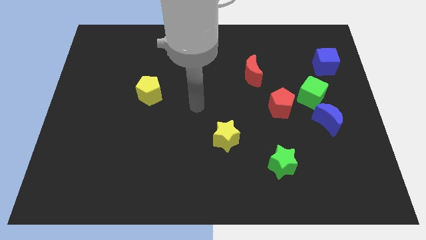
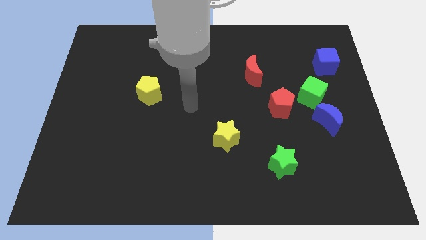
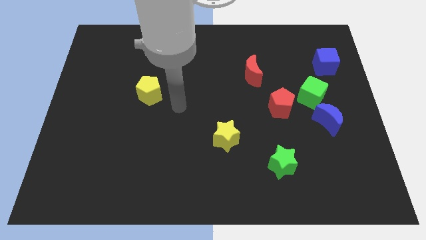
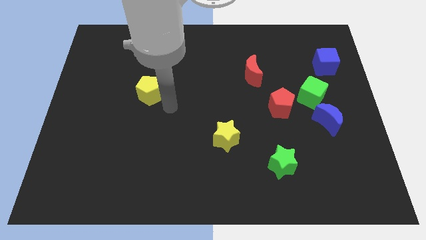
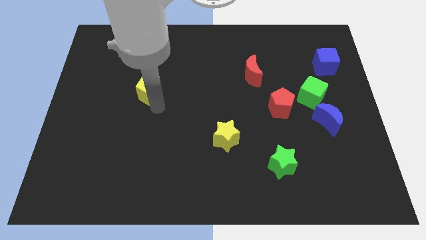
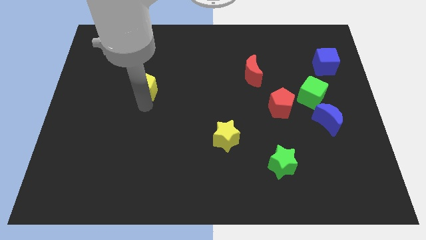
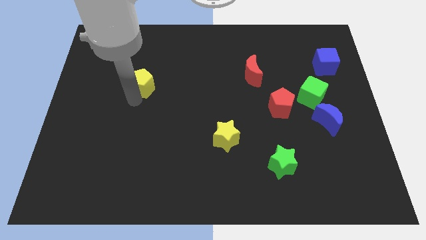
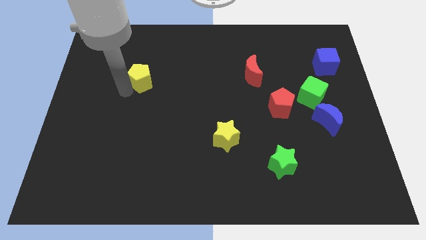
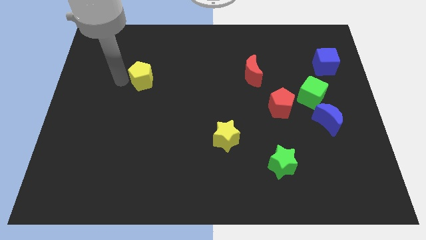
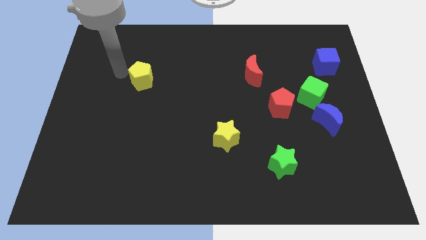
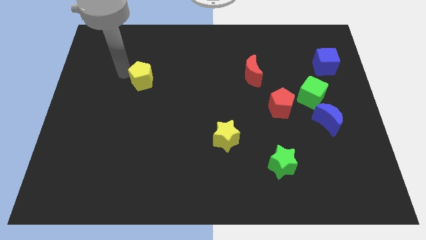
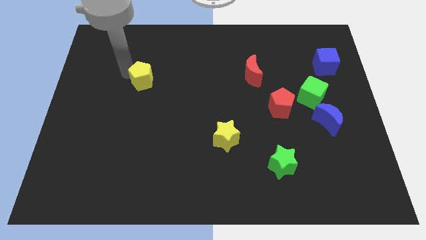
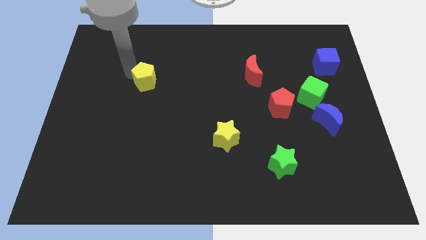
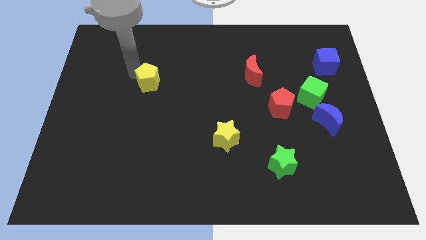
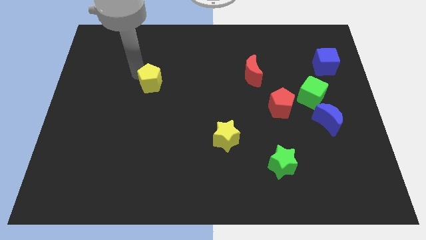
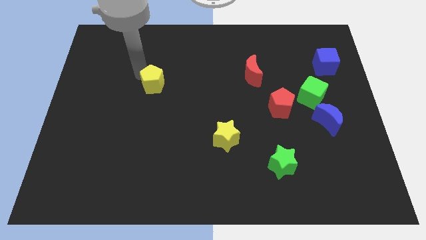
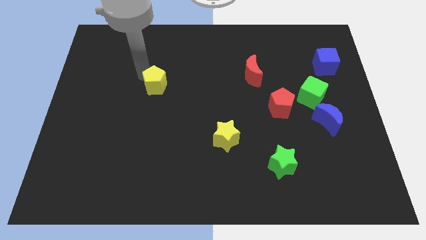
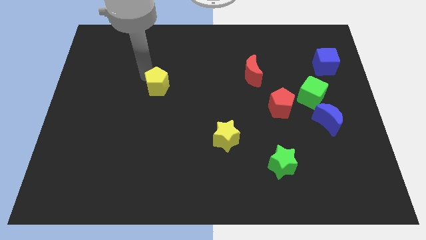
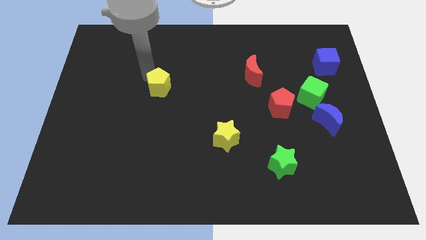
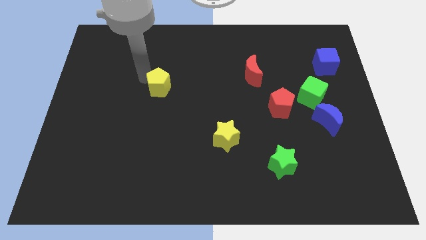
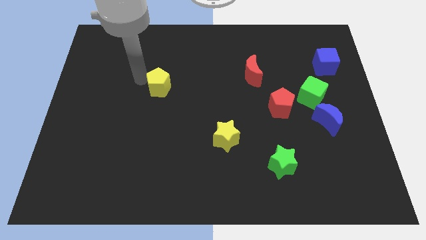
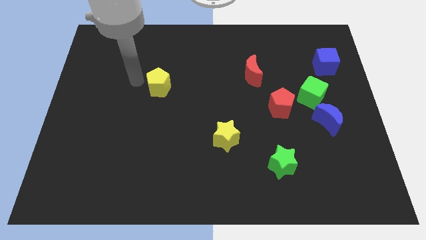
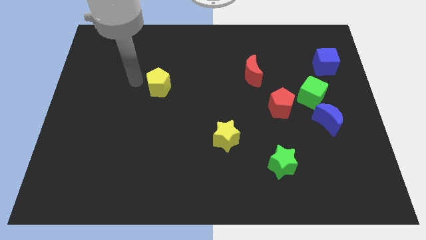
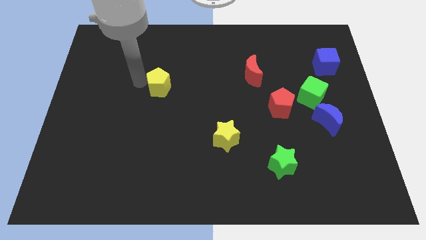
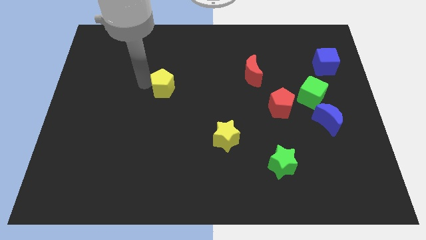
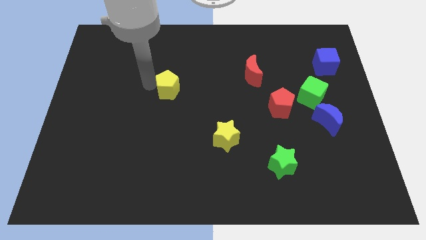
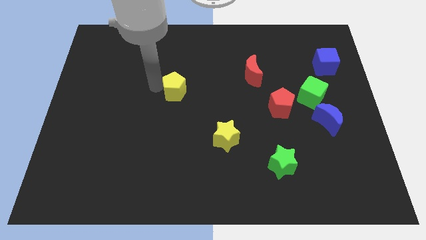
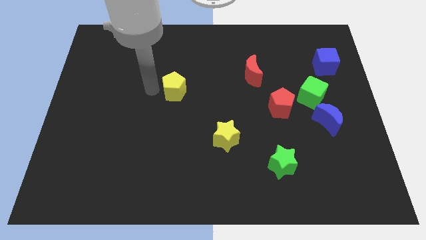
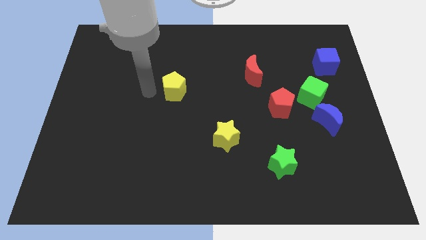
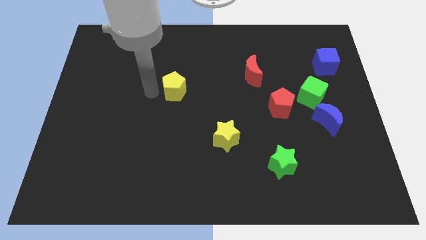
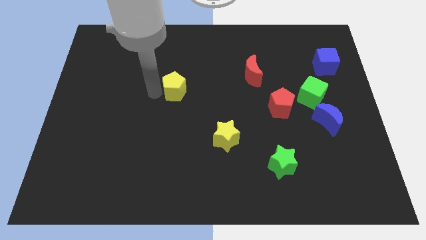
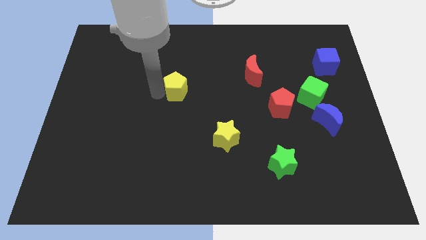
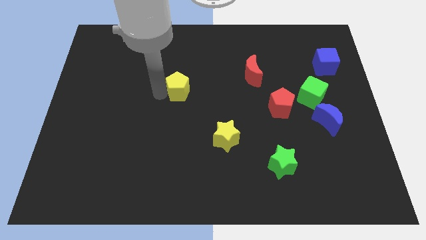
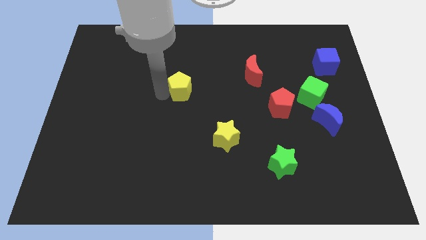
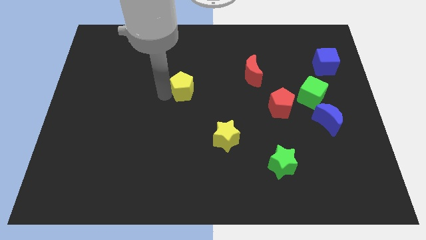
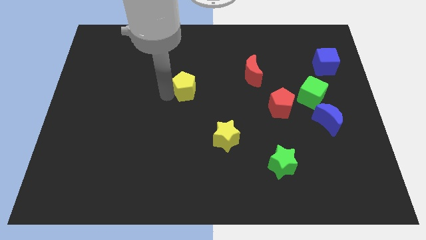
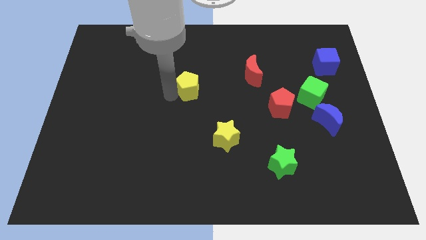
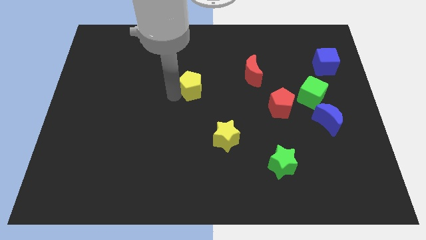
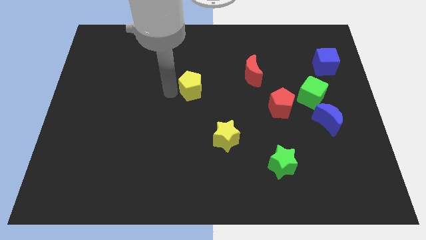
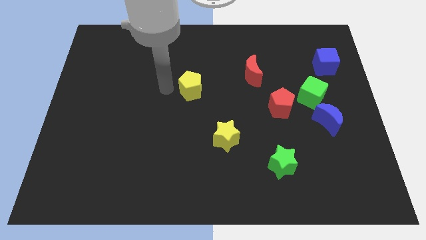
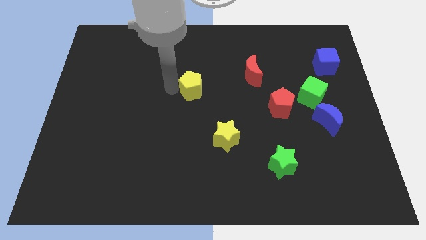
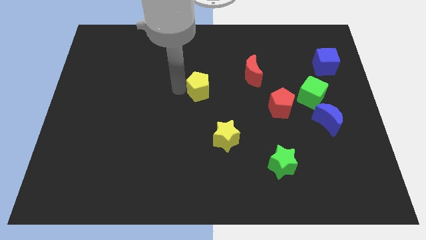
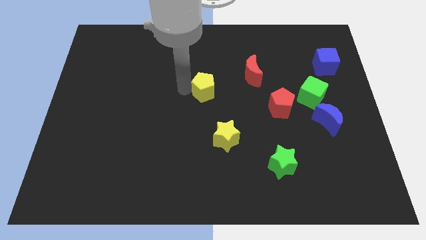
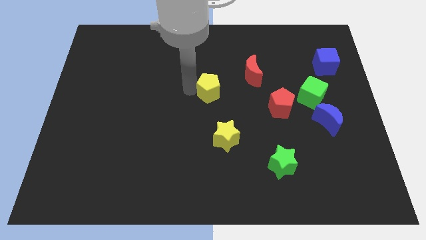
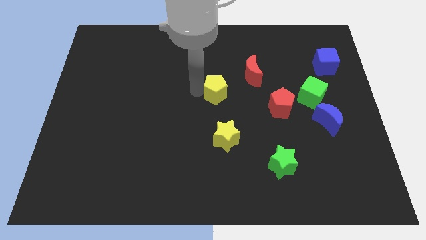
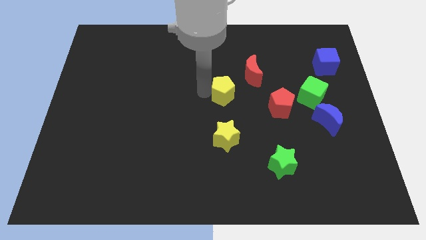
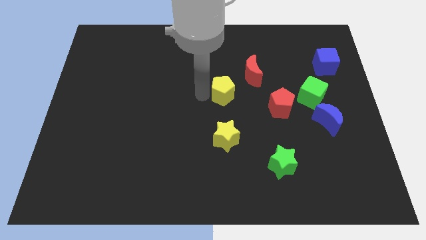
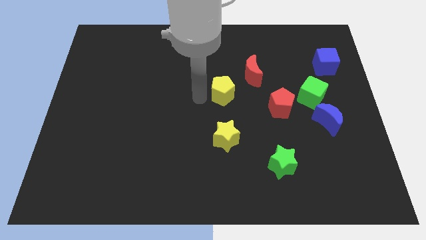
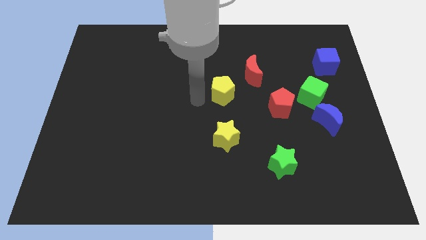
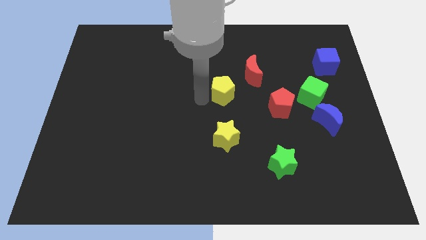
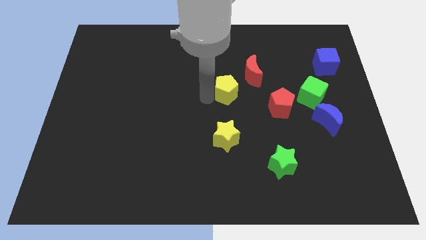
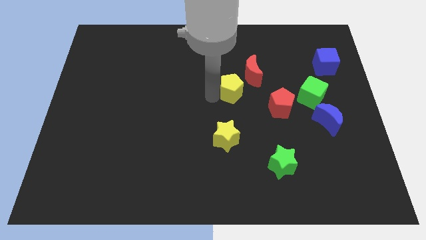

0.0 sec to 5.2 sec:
push the yellow pentagon right

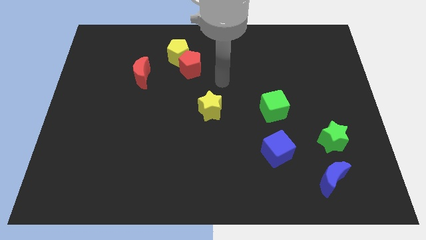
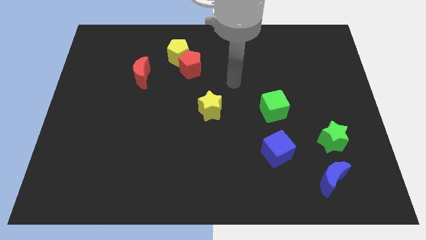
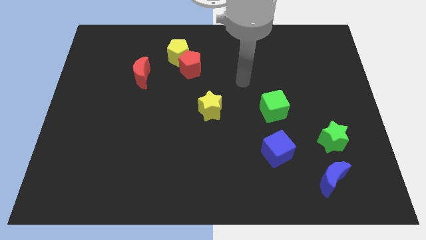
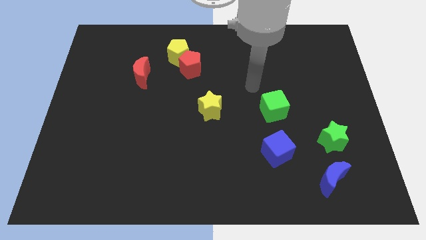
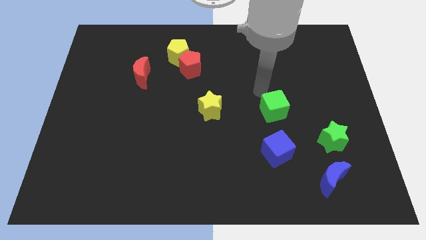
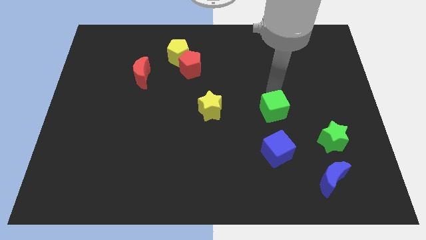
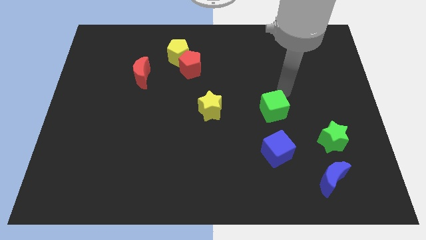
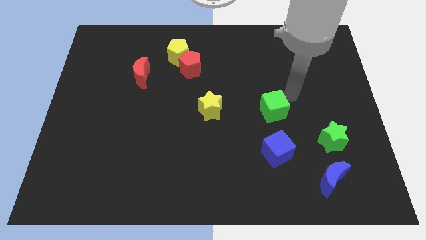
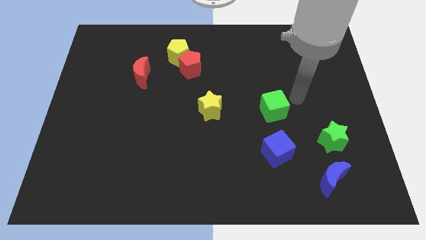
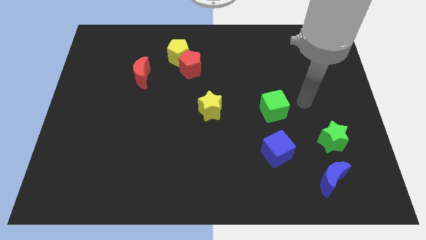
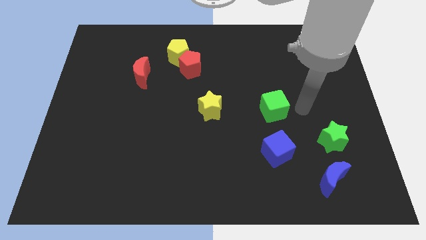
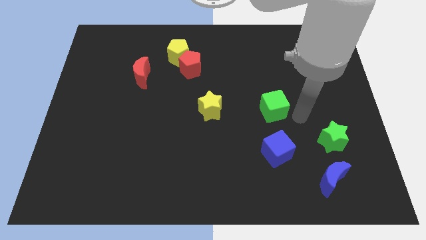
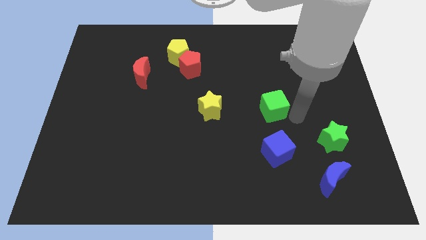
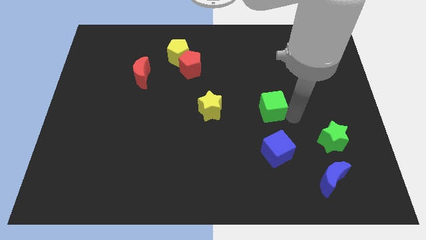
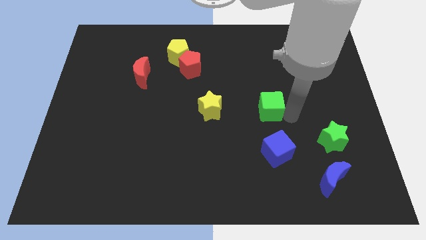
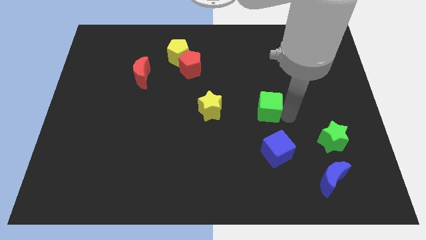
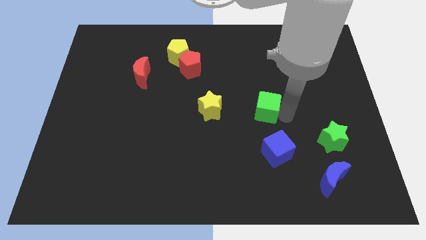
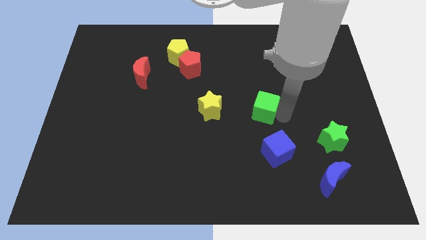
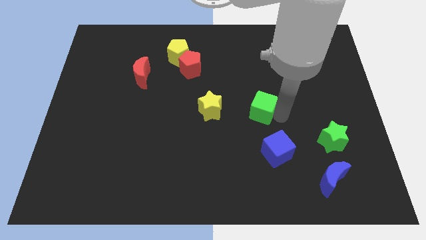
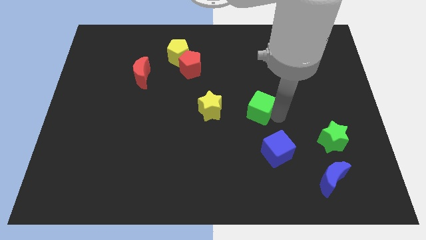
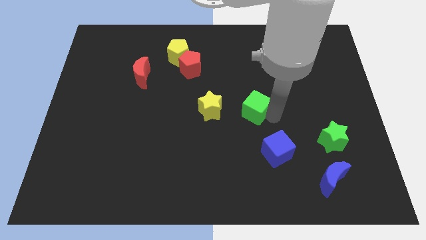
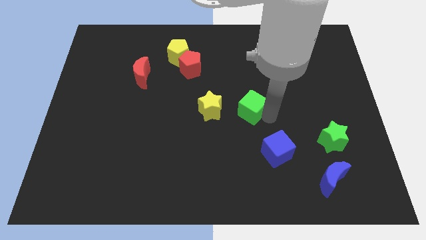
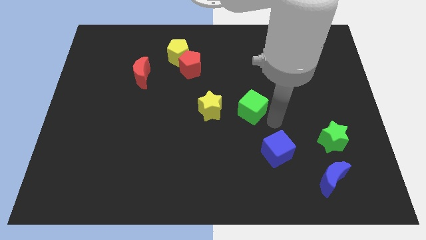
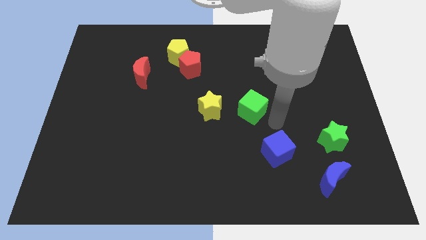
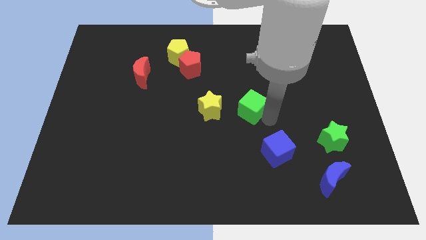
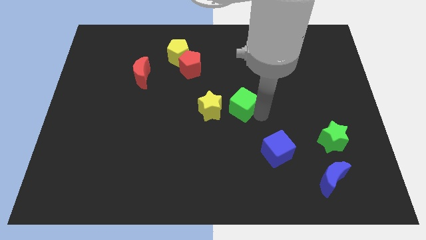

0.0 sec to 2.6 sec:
slide the green cube left a little
